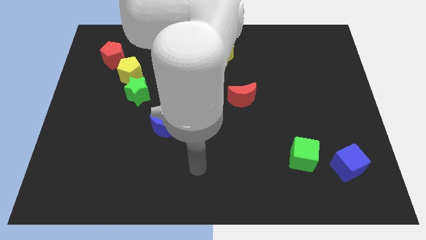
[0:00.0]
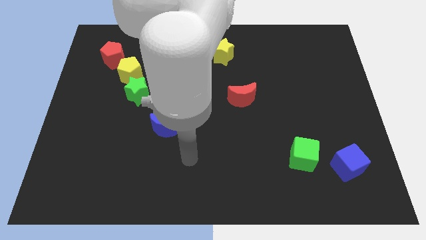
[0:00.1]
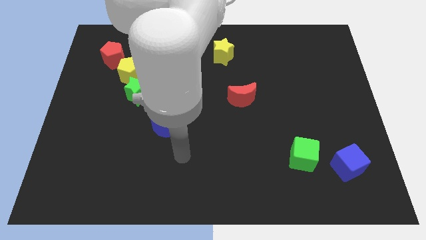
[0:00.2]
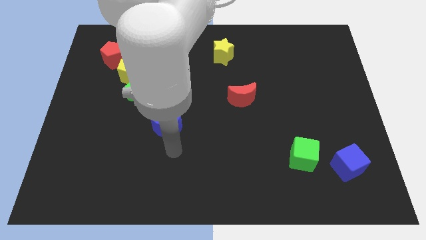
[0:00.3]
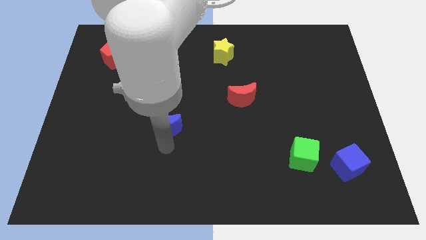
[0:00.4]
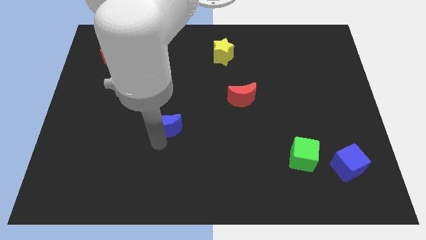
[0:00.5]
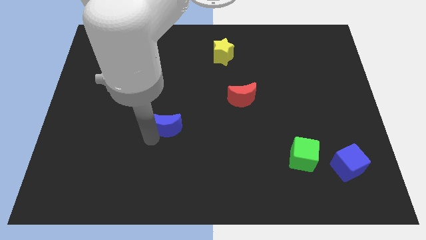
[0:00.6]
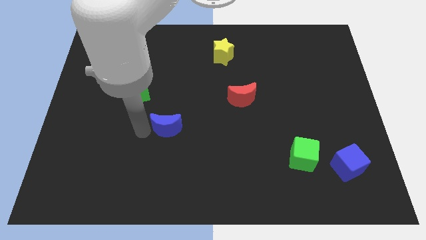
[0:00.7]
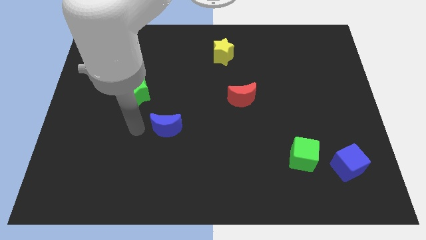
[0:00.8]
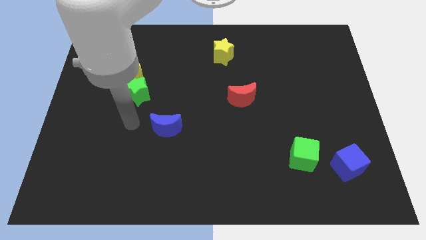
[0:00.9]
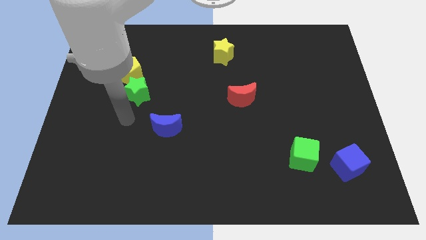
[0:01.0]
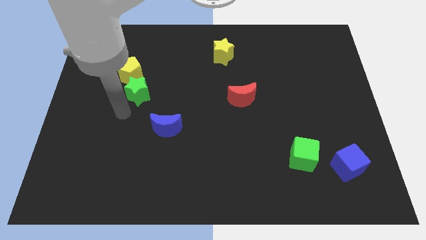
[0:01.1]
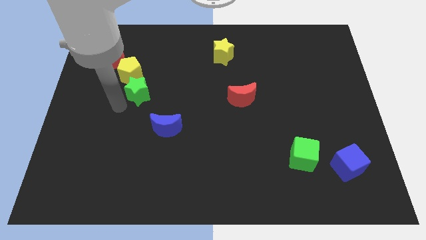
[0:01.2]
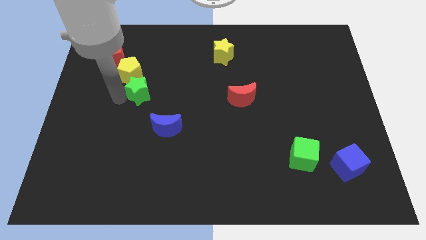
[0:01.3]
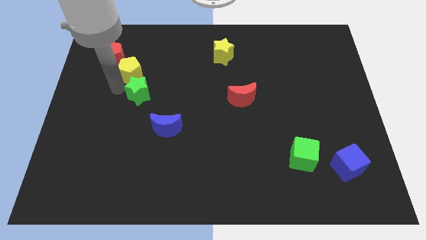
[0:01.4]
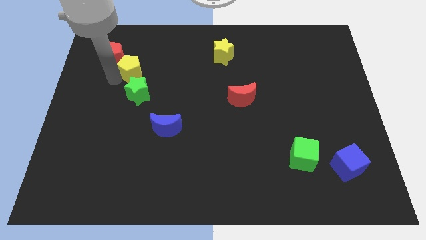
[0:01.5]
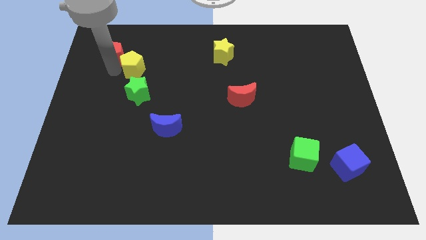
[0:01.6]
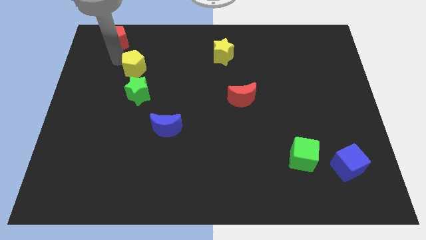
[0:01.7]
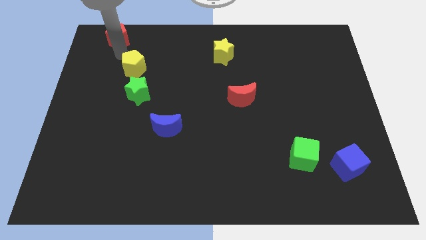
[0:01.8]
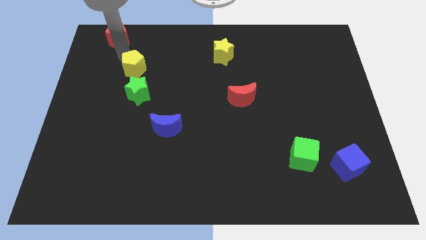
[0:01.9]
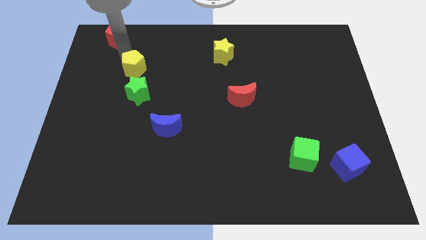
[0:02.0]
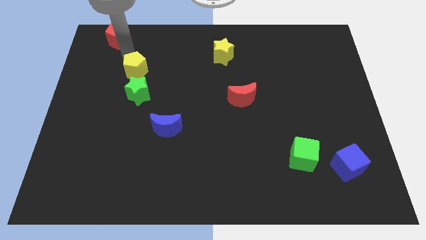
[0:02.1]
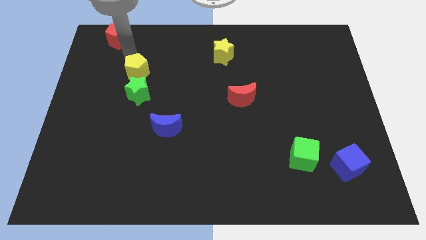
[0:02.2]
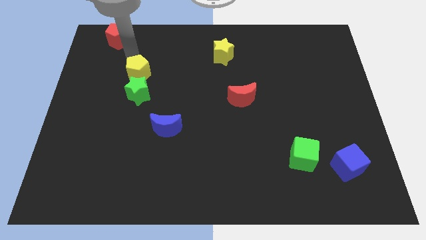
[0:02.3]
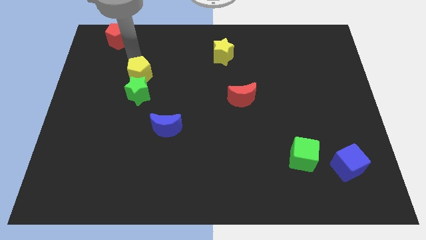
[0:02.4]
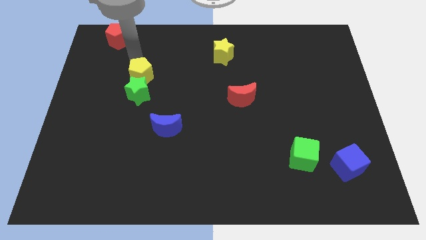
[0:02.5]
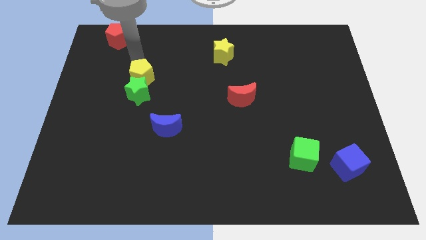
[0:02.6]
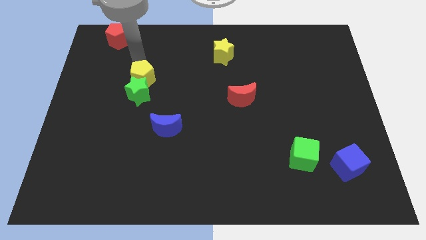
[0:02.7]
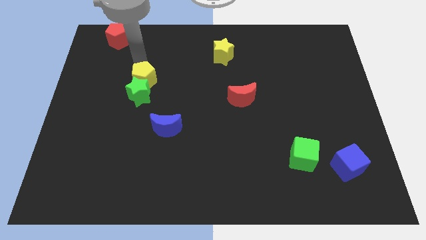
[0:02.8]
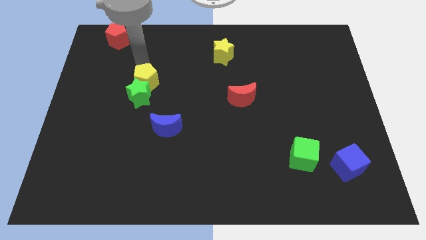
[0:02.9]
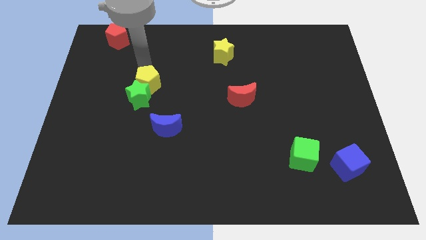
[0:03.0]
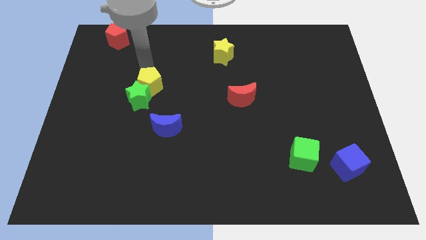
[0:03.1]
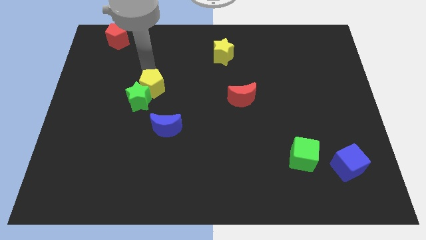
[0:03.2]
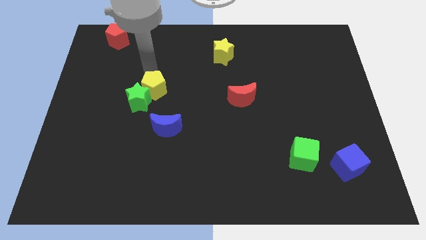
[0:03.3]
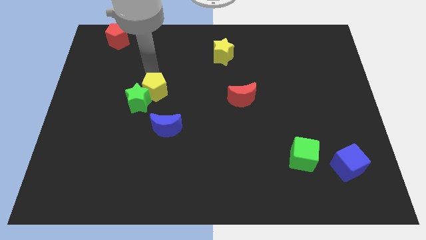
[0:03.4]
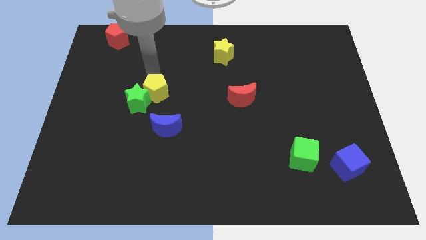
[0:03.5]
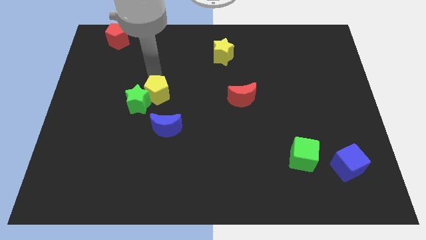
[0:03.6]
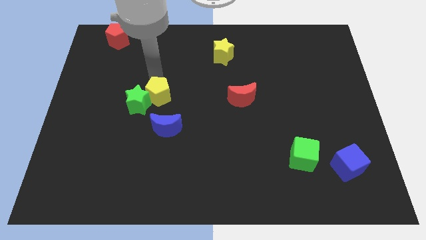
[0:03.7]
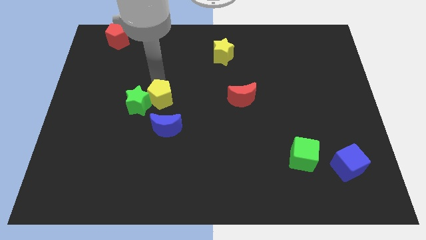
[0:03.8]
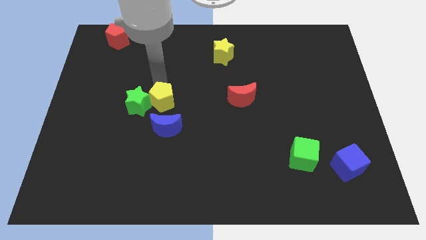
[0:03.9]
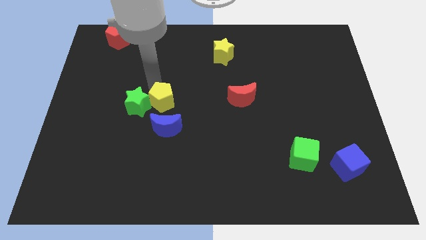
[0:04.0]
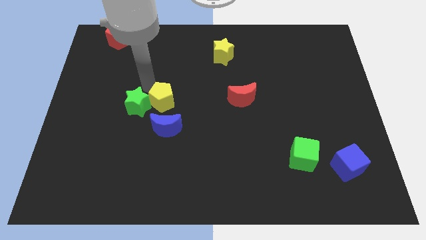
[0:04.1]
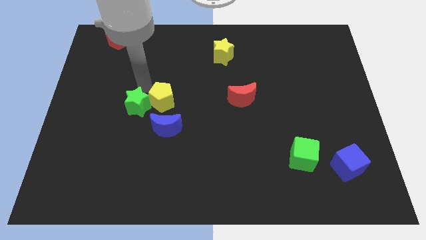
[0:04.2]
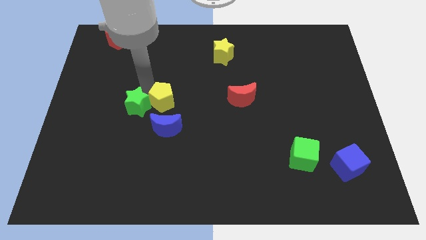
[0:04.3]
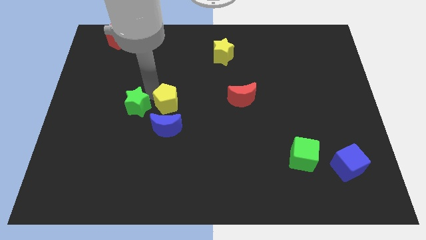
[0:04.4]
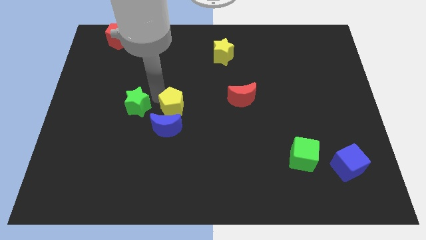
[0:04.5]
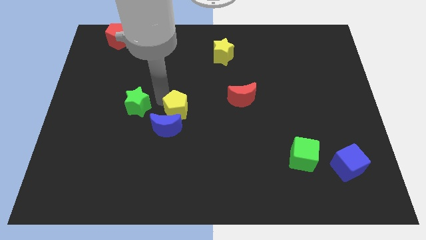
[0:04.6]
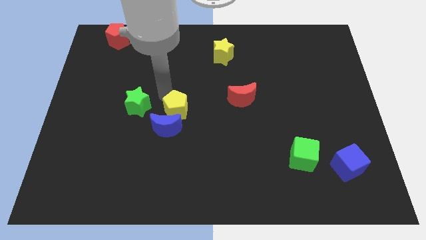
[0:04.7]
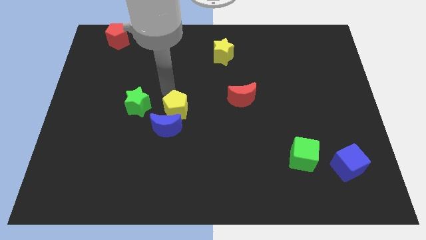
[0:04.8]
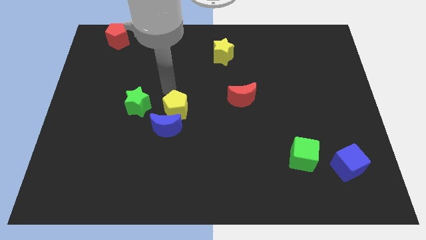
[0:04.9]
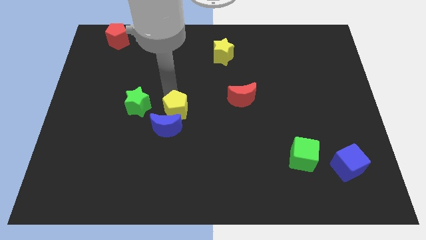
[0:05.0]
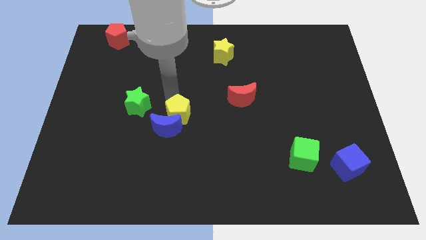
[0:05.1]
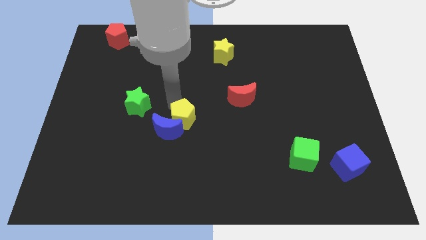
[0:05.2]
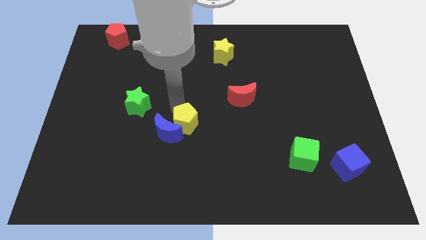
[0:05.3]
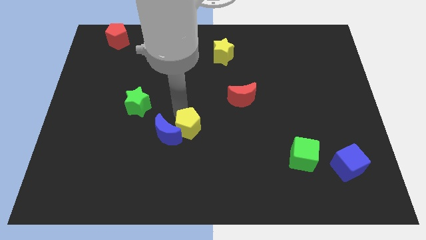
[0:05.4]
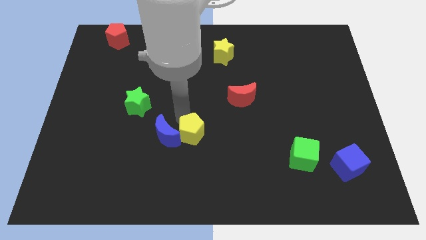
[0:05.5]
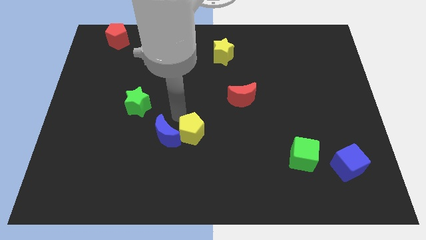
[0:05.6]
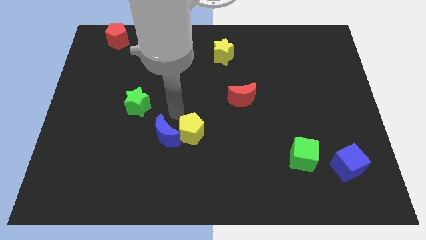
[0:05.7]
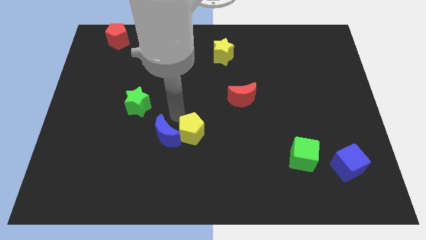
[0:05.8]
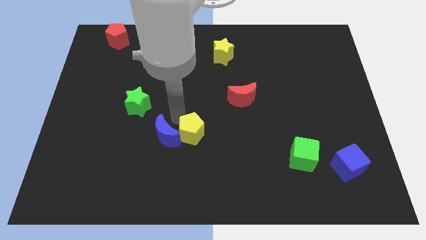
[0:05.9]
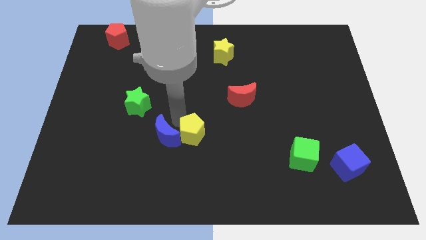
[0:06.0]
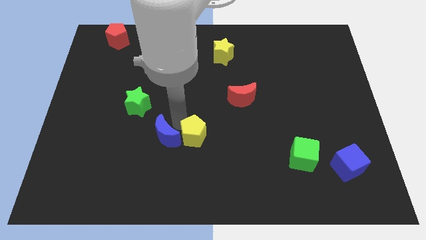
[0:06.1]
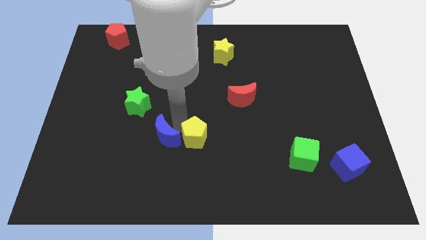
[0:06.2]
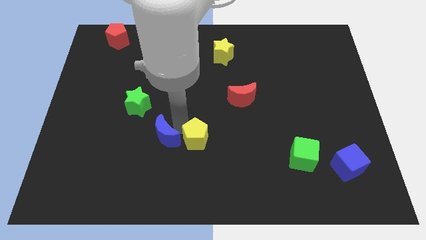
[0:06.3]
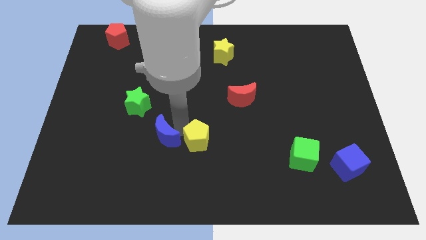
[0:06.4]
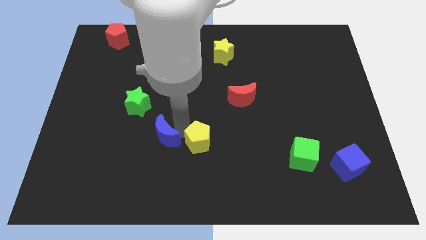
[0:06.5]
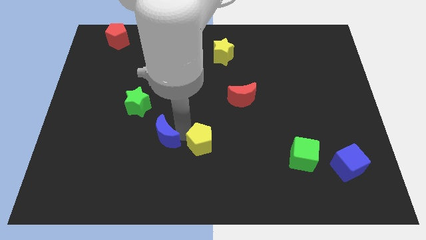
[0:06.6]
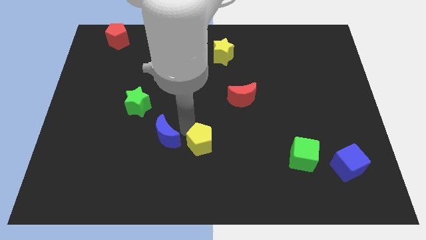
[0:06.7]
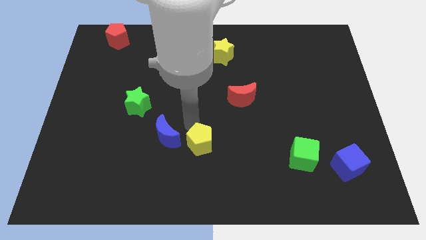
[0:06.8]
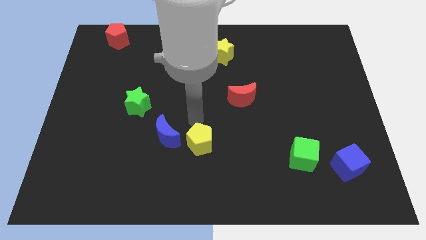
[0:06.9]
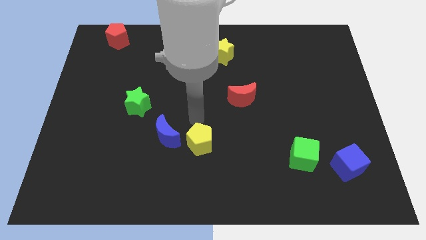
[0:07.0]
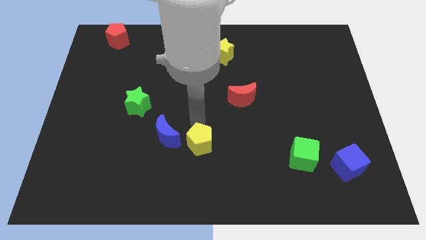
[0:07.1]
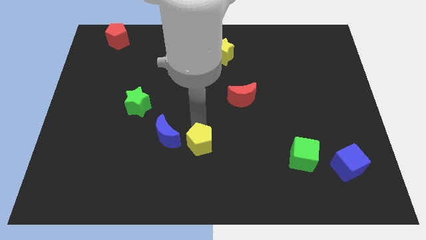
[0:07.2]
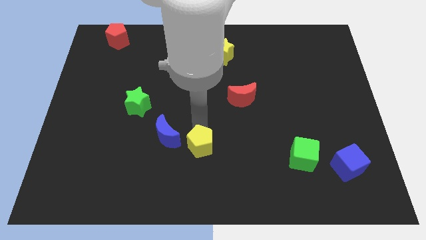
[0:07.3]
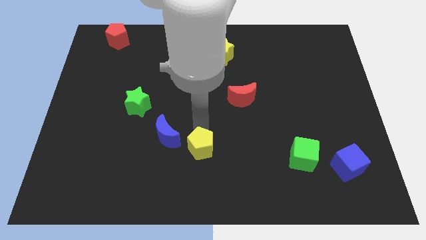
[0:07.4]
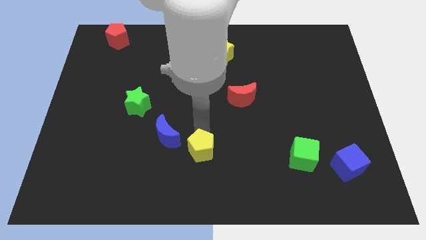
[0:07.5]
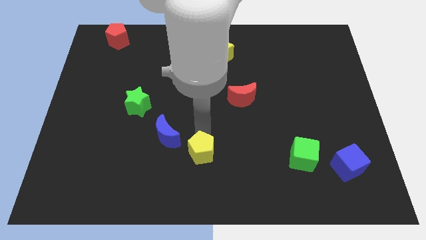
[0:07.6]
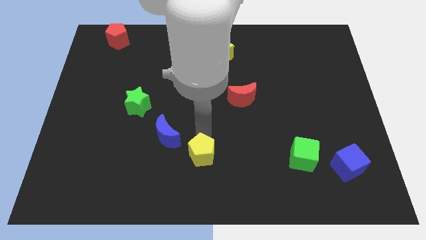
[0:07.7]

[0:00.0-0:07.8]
slide the yellow pentagon to the bottom
